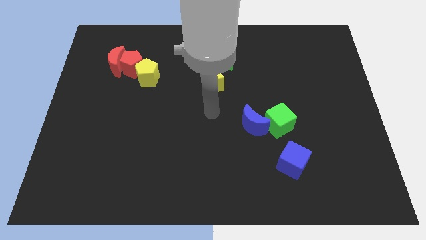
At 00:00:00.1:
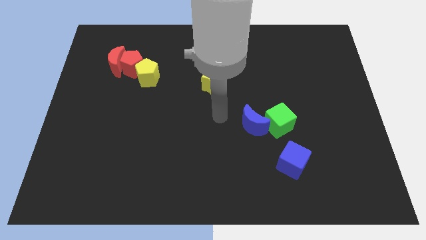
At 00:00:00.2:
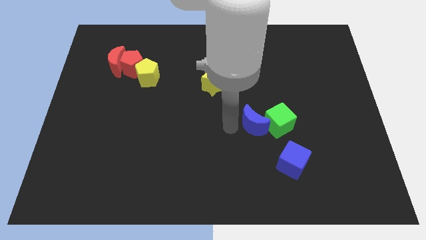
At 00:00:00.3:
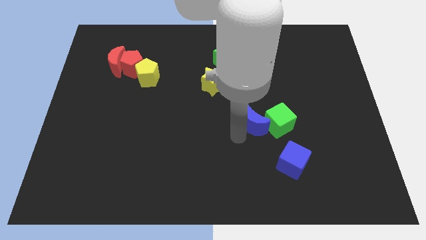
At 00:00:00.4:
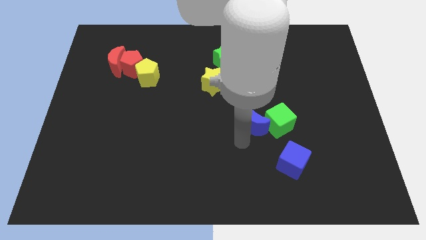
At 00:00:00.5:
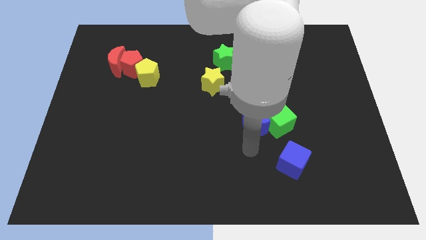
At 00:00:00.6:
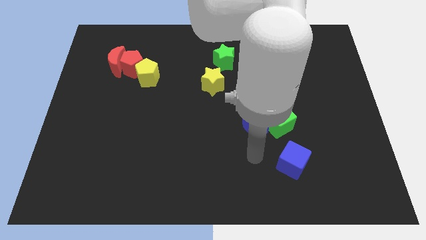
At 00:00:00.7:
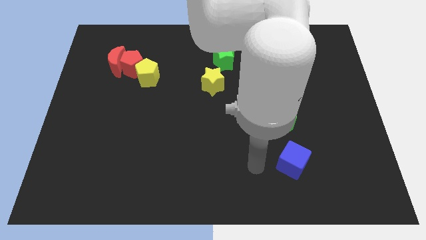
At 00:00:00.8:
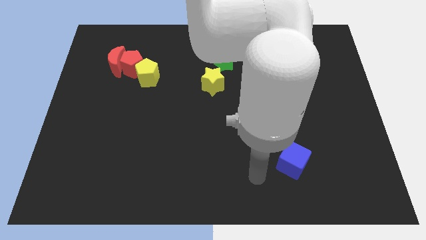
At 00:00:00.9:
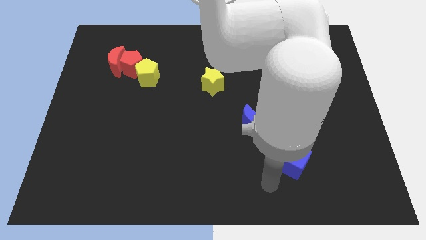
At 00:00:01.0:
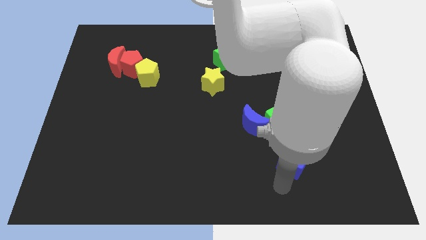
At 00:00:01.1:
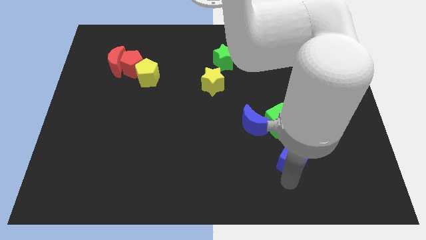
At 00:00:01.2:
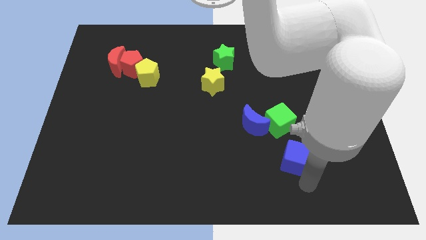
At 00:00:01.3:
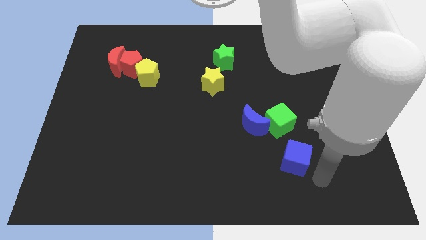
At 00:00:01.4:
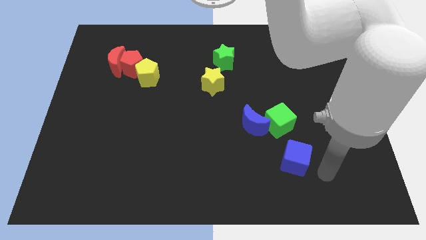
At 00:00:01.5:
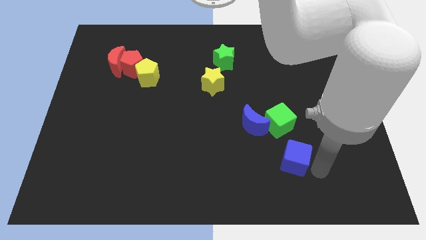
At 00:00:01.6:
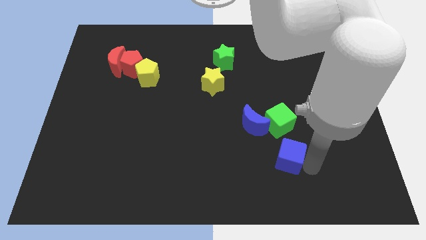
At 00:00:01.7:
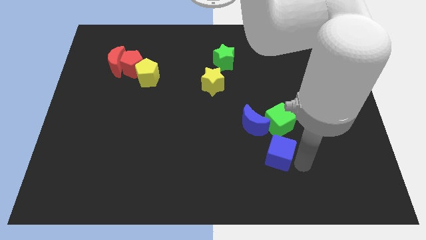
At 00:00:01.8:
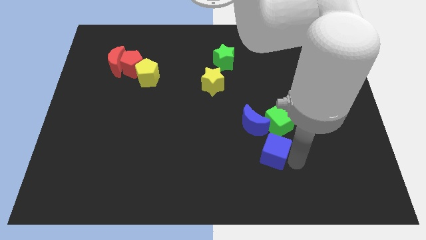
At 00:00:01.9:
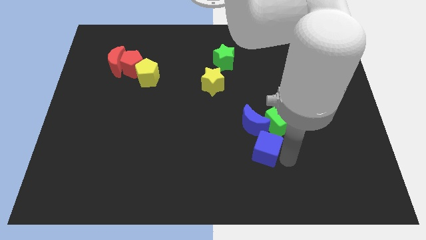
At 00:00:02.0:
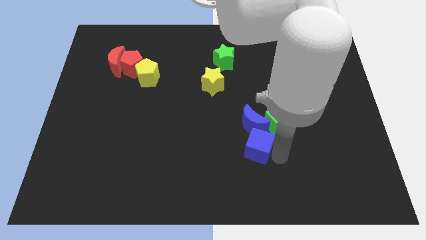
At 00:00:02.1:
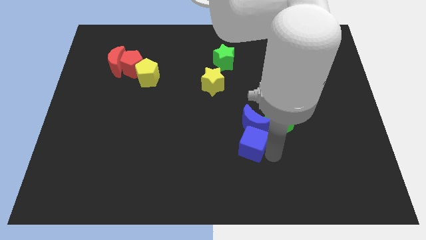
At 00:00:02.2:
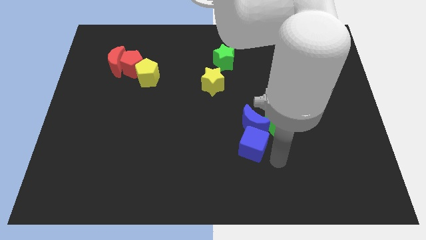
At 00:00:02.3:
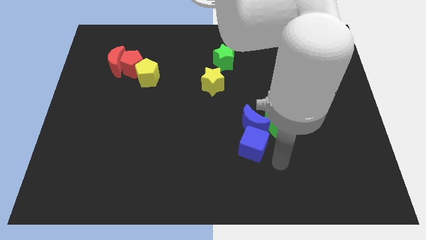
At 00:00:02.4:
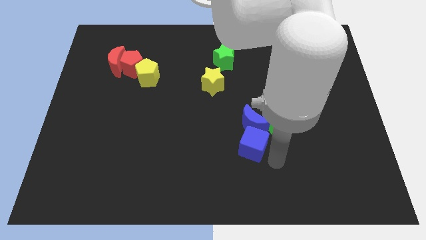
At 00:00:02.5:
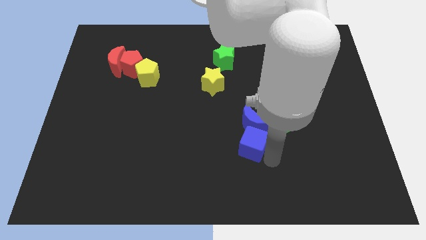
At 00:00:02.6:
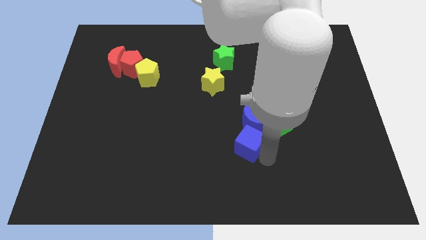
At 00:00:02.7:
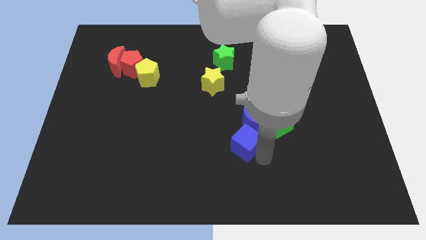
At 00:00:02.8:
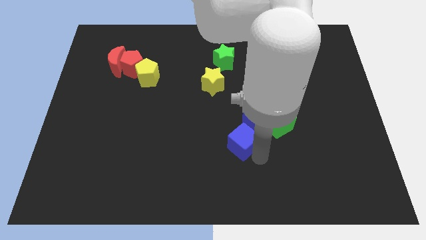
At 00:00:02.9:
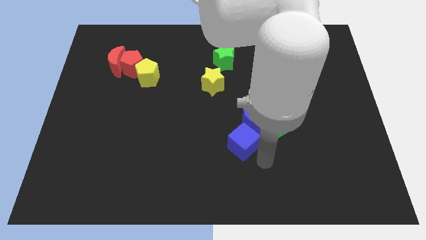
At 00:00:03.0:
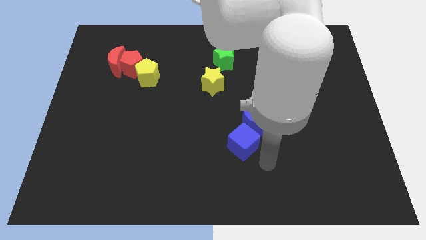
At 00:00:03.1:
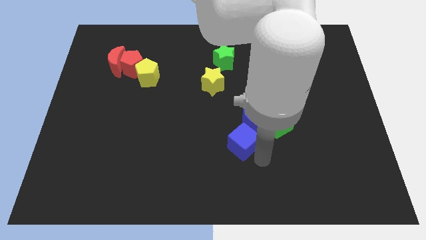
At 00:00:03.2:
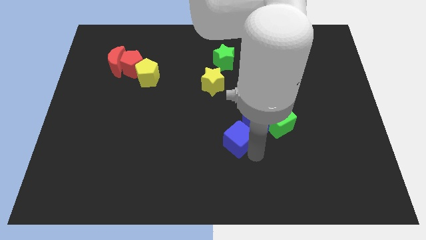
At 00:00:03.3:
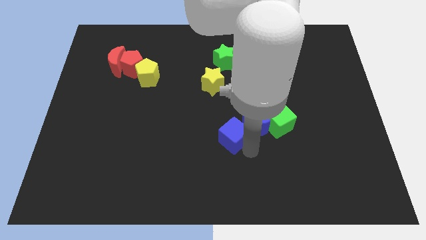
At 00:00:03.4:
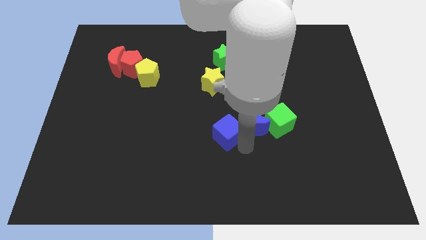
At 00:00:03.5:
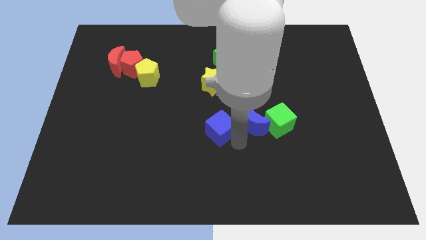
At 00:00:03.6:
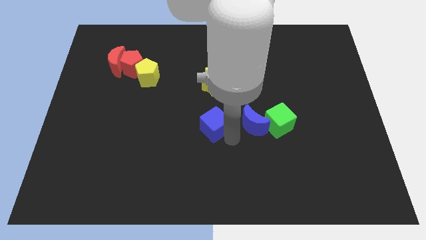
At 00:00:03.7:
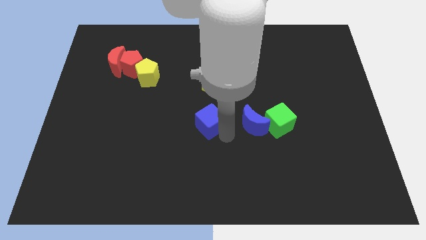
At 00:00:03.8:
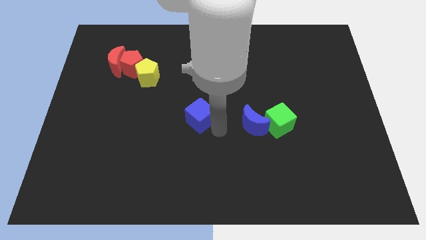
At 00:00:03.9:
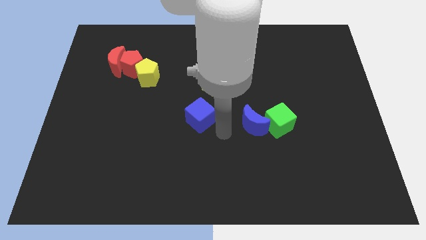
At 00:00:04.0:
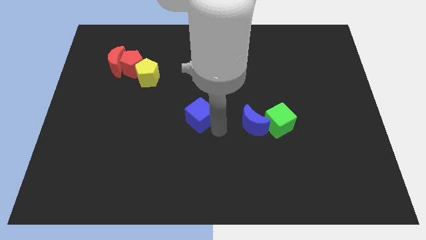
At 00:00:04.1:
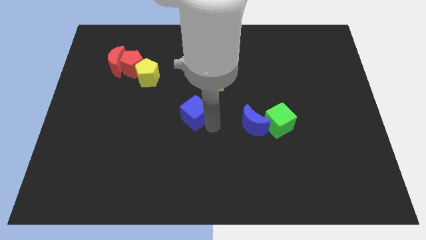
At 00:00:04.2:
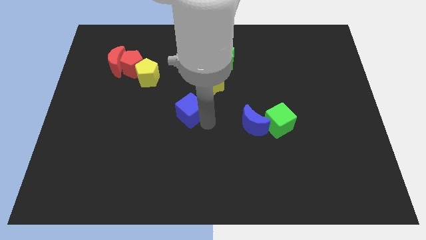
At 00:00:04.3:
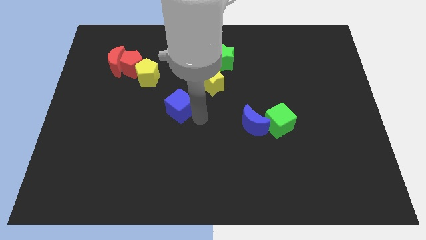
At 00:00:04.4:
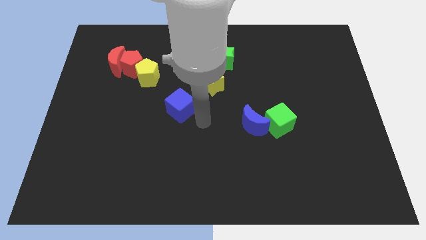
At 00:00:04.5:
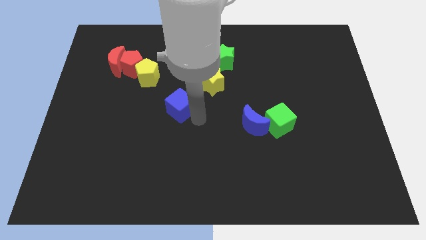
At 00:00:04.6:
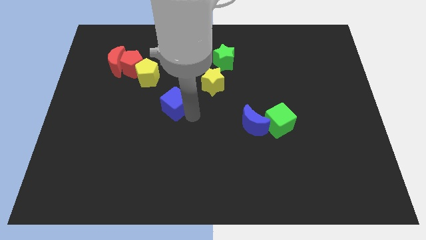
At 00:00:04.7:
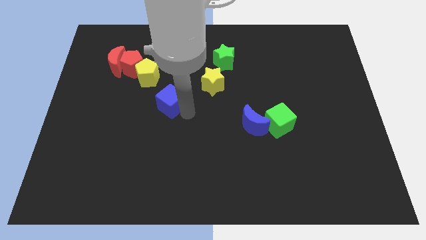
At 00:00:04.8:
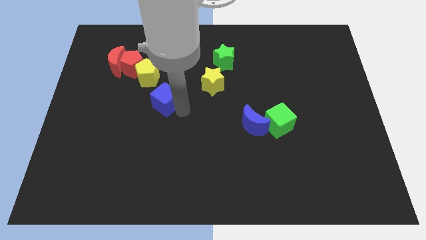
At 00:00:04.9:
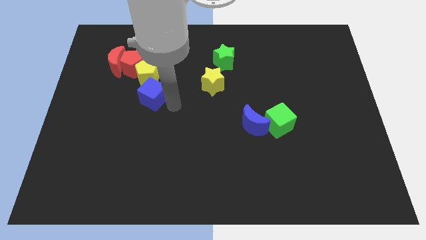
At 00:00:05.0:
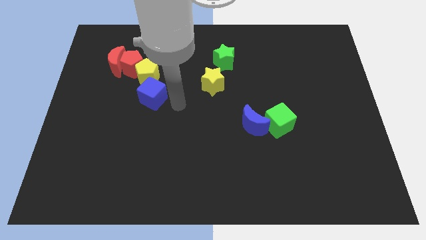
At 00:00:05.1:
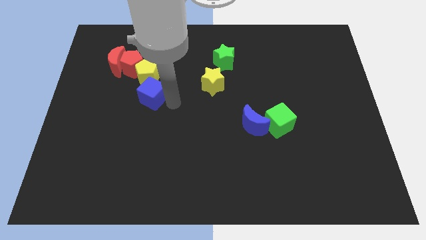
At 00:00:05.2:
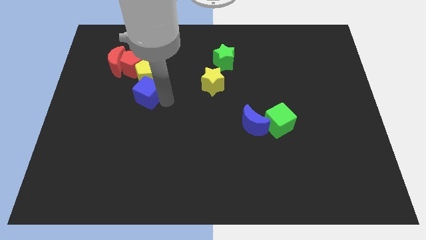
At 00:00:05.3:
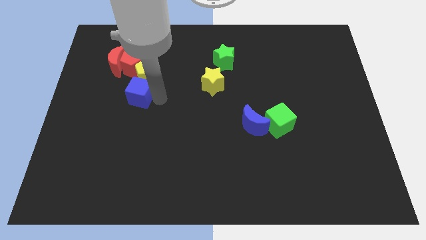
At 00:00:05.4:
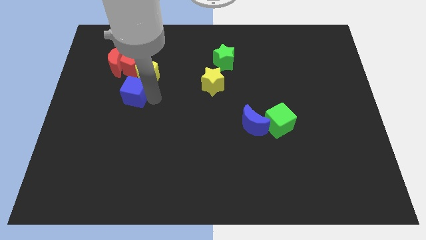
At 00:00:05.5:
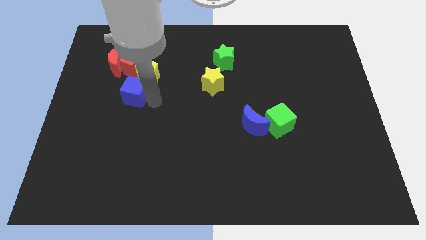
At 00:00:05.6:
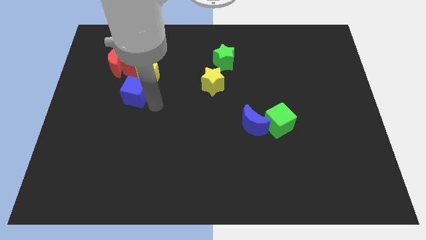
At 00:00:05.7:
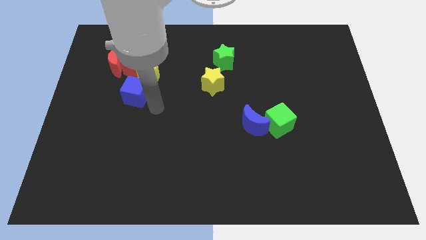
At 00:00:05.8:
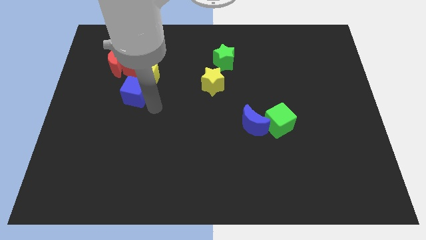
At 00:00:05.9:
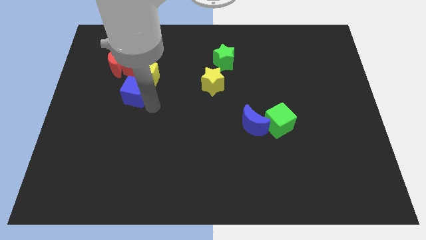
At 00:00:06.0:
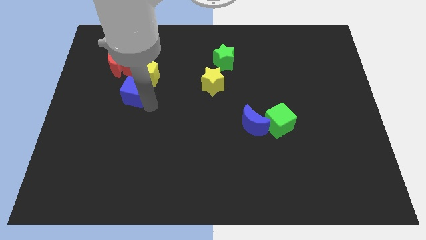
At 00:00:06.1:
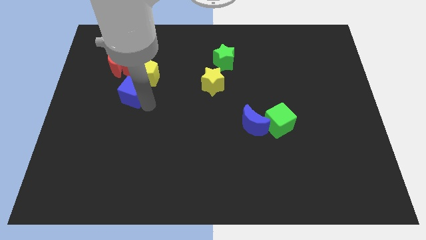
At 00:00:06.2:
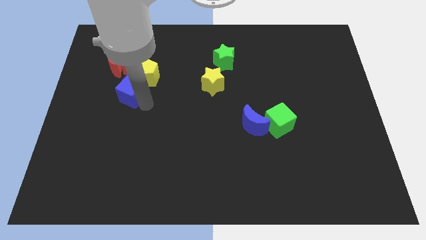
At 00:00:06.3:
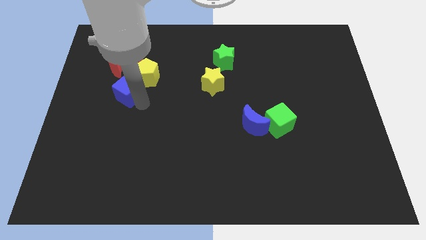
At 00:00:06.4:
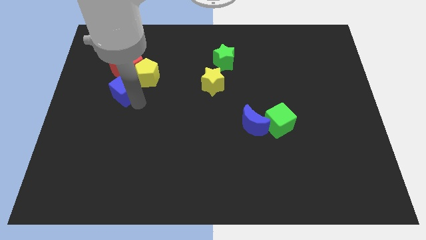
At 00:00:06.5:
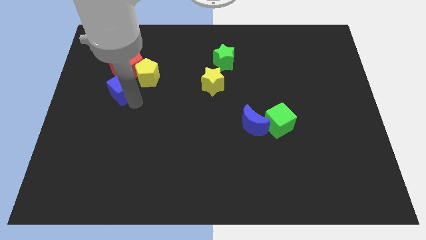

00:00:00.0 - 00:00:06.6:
put the blue cube just left of the yellow pentagon

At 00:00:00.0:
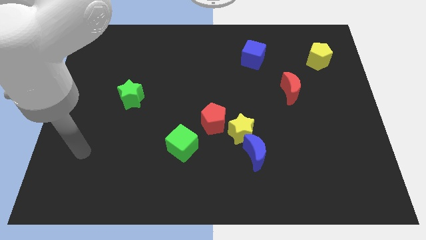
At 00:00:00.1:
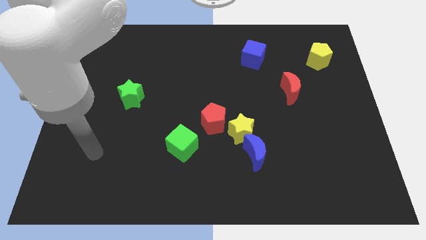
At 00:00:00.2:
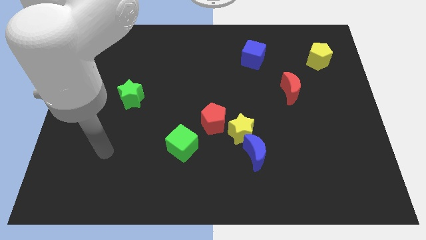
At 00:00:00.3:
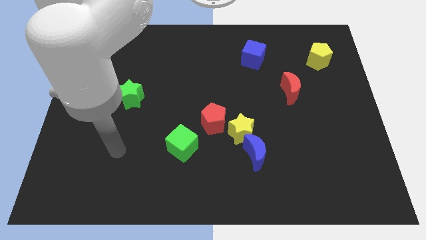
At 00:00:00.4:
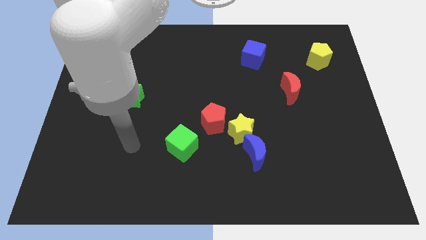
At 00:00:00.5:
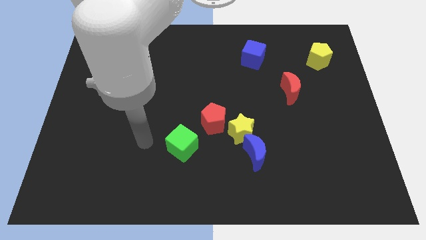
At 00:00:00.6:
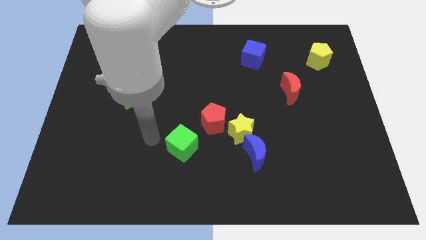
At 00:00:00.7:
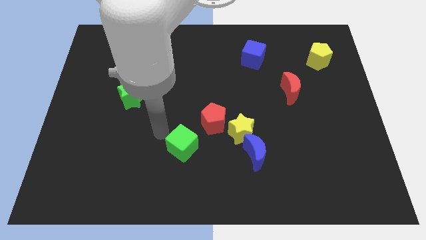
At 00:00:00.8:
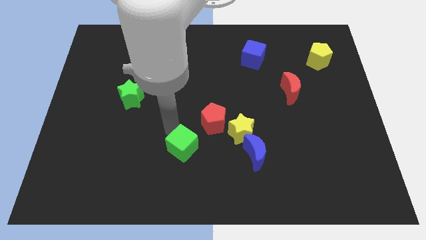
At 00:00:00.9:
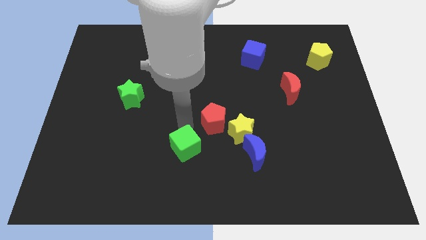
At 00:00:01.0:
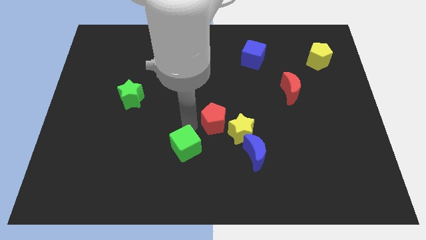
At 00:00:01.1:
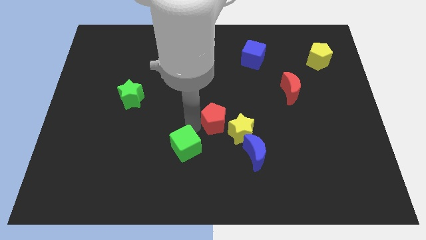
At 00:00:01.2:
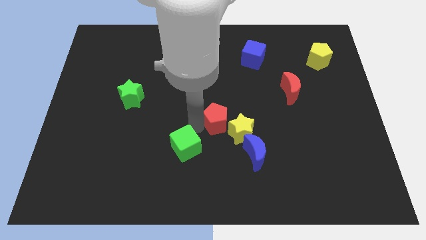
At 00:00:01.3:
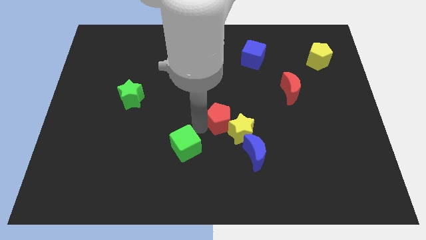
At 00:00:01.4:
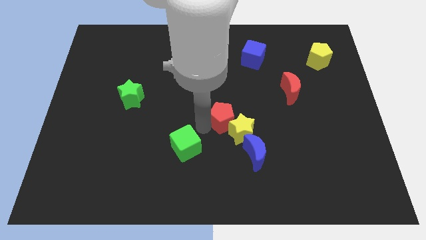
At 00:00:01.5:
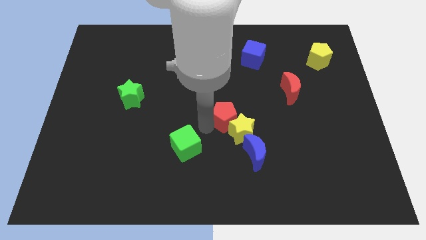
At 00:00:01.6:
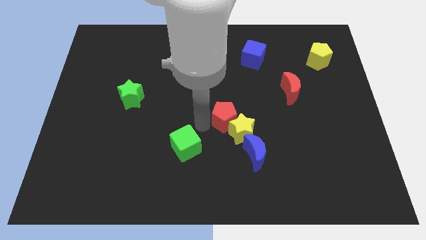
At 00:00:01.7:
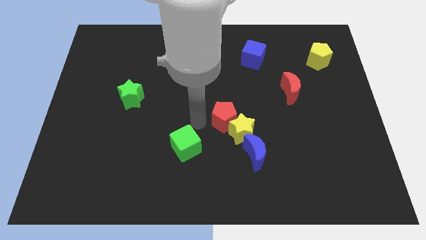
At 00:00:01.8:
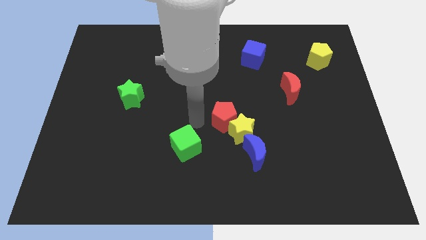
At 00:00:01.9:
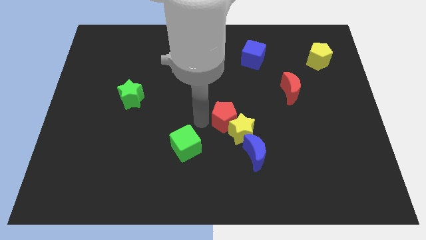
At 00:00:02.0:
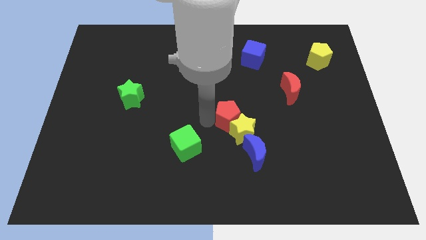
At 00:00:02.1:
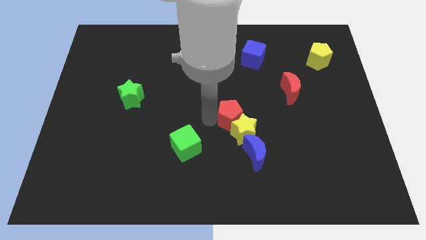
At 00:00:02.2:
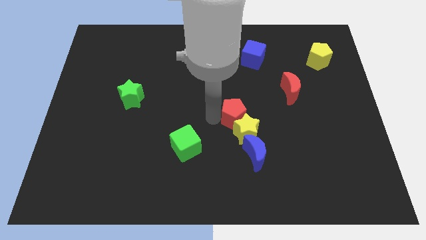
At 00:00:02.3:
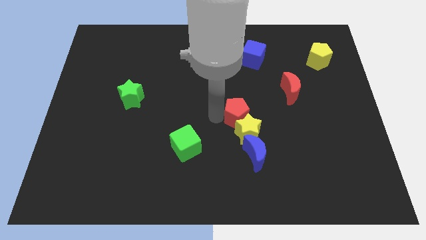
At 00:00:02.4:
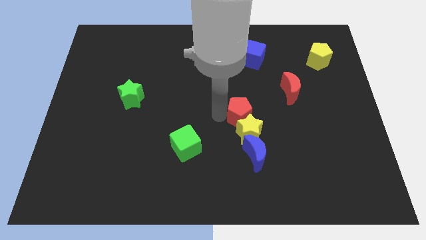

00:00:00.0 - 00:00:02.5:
move the red pentagon to the top right side of the yellow star
